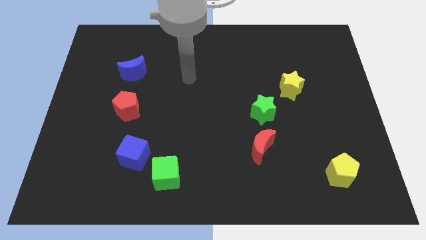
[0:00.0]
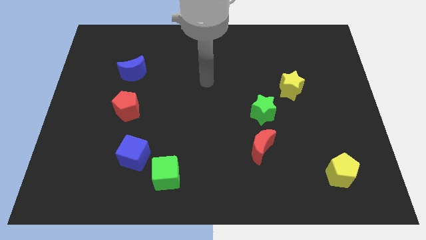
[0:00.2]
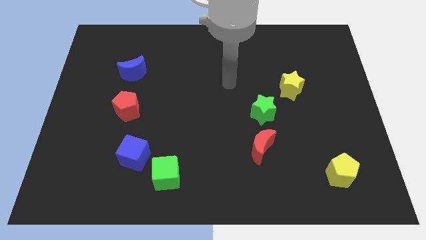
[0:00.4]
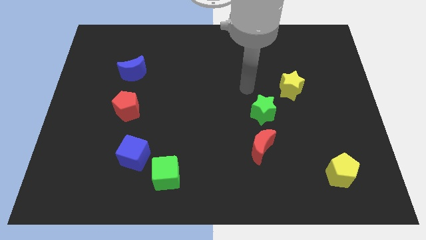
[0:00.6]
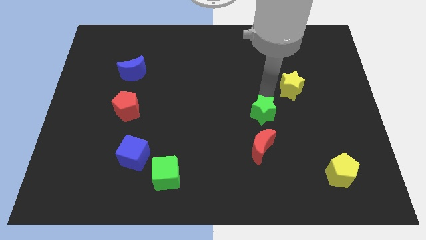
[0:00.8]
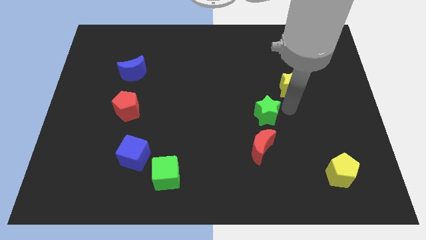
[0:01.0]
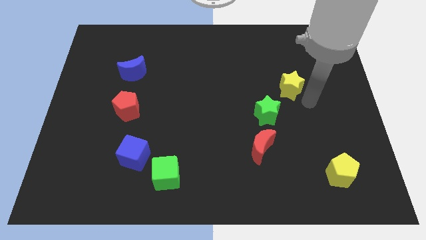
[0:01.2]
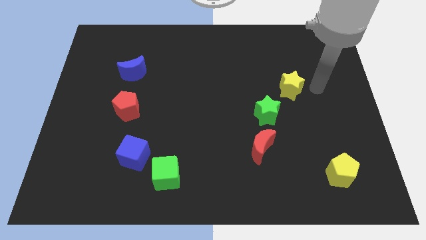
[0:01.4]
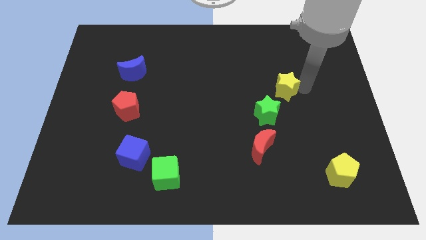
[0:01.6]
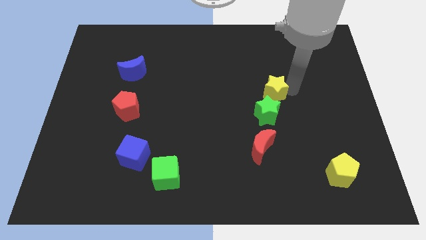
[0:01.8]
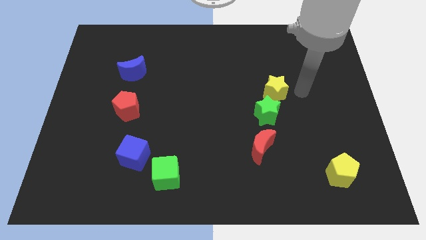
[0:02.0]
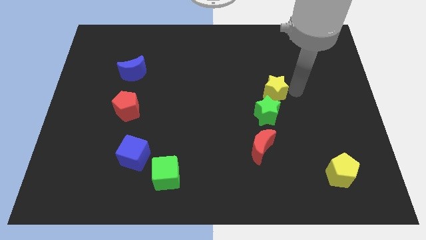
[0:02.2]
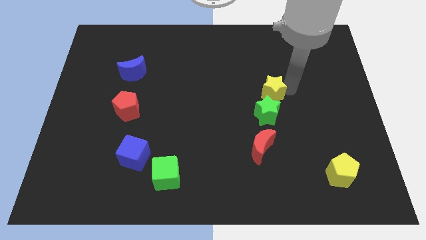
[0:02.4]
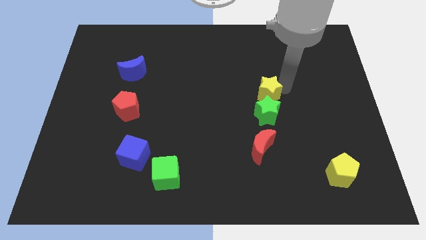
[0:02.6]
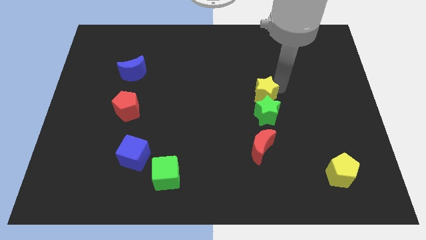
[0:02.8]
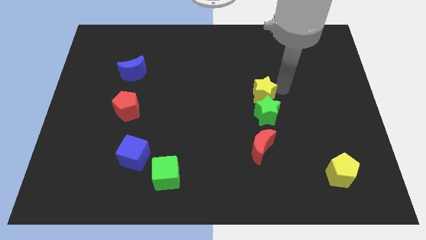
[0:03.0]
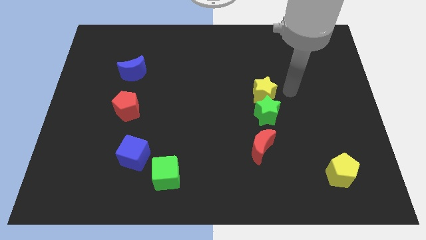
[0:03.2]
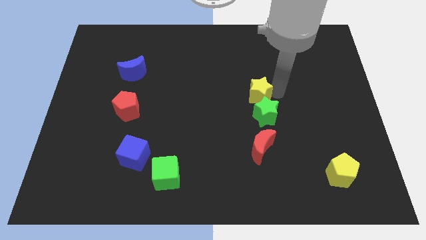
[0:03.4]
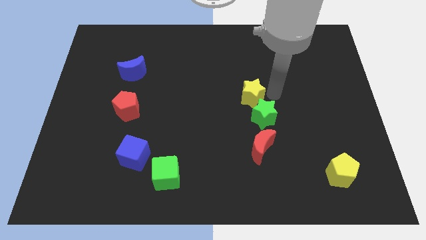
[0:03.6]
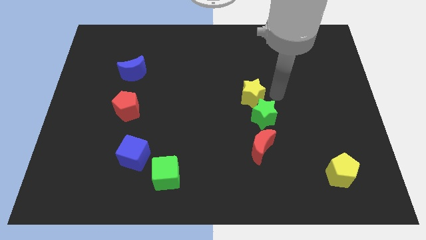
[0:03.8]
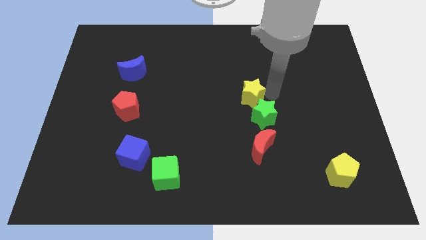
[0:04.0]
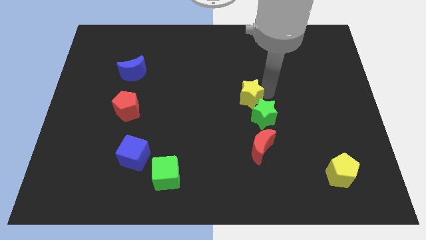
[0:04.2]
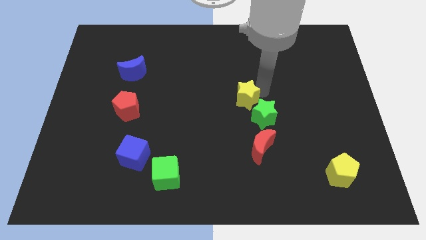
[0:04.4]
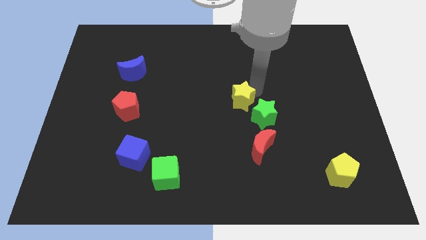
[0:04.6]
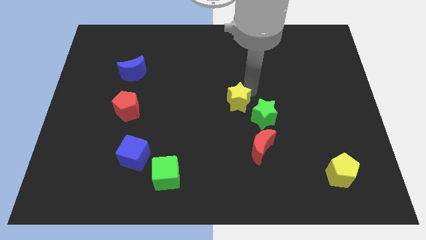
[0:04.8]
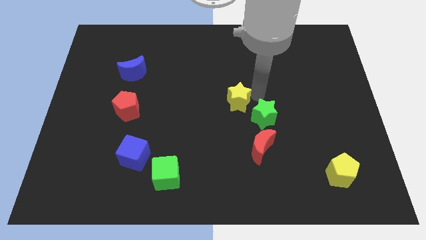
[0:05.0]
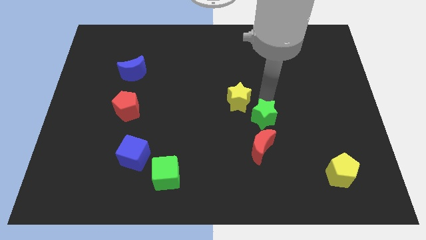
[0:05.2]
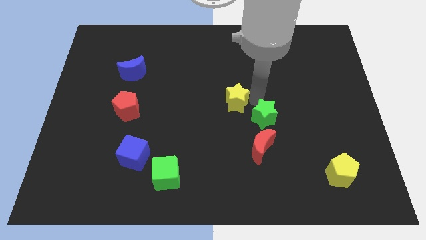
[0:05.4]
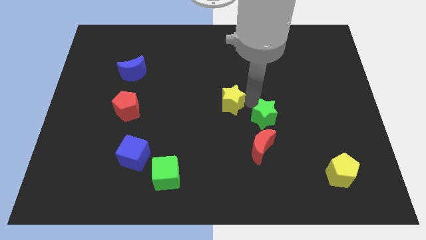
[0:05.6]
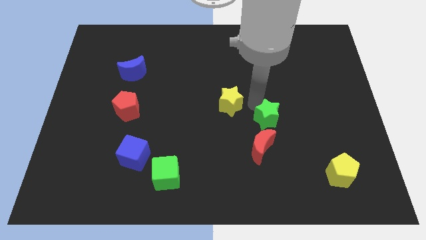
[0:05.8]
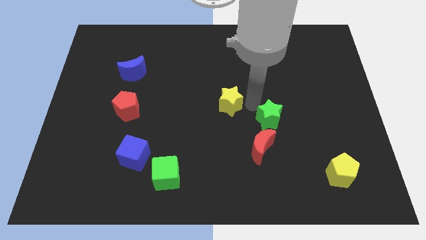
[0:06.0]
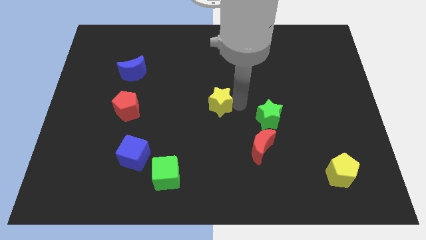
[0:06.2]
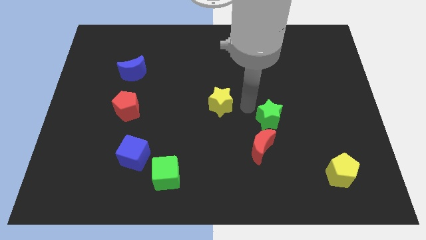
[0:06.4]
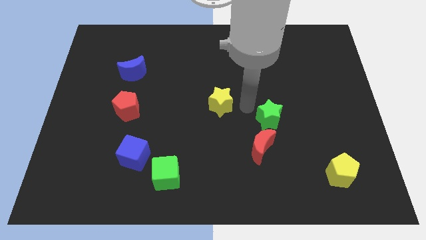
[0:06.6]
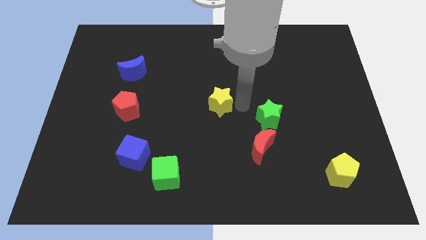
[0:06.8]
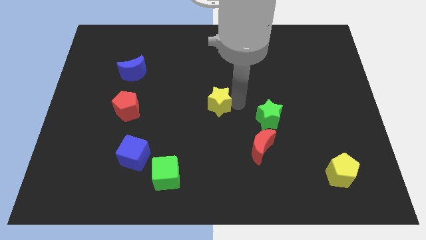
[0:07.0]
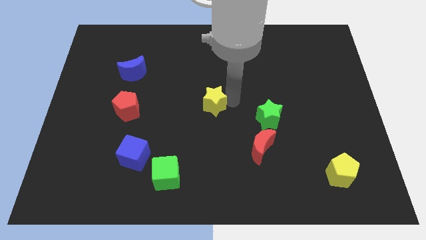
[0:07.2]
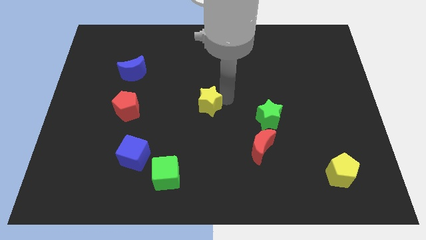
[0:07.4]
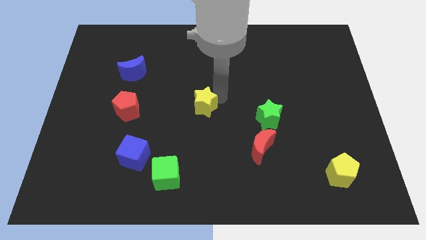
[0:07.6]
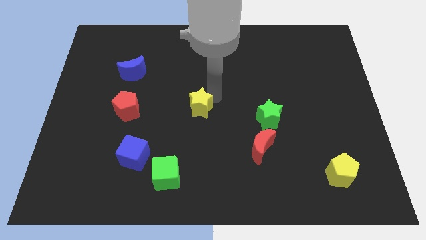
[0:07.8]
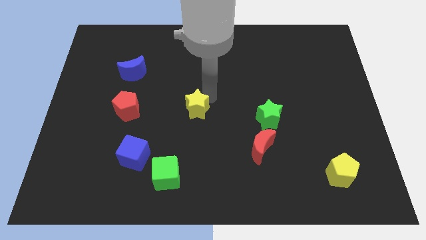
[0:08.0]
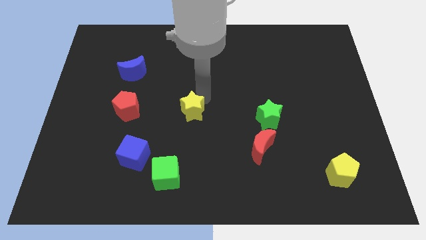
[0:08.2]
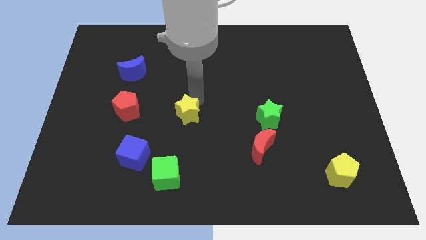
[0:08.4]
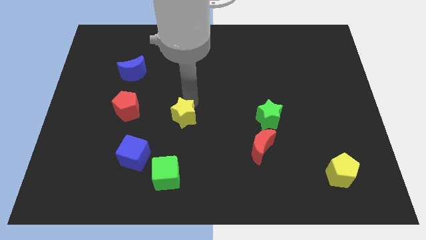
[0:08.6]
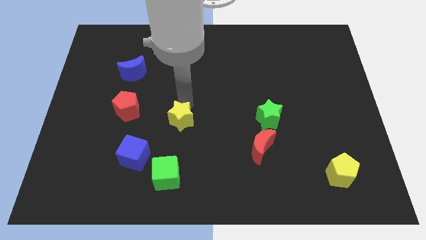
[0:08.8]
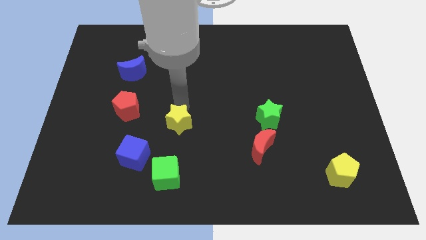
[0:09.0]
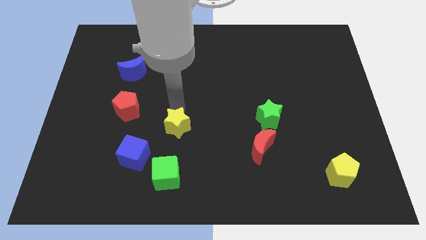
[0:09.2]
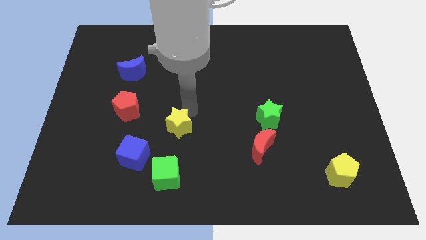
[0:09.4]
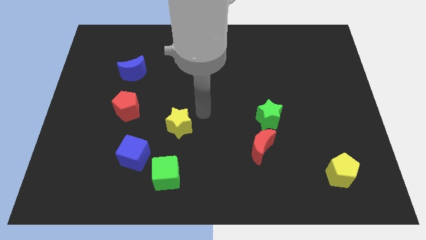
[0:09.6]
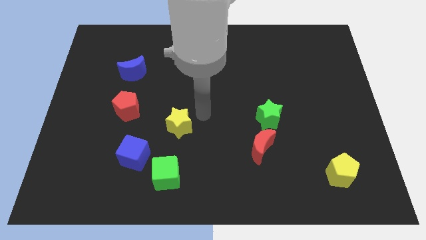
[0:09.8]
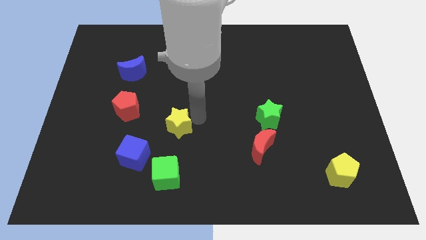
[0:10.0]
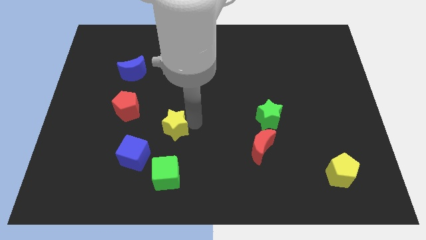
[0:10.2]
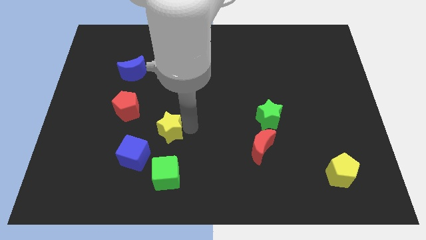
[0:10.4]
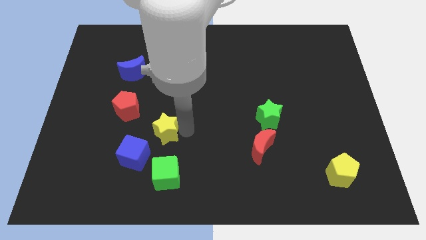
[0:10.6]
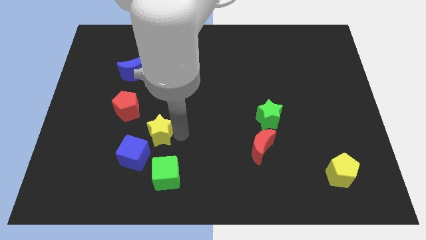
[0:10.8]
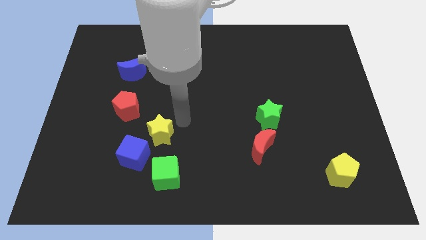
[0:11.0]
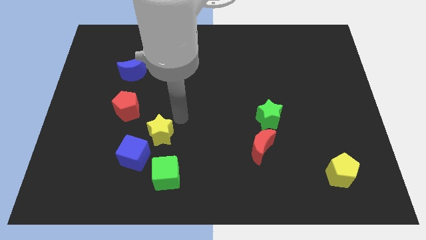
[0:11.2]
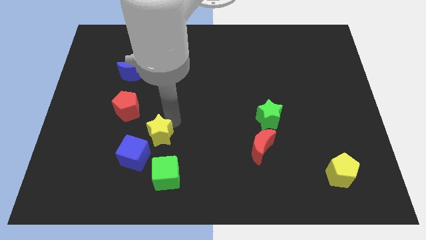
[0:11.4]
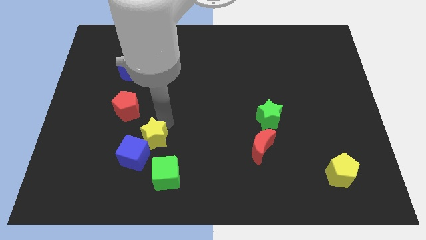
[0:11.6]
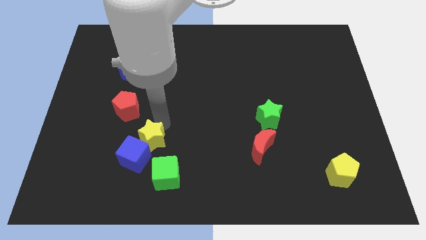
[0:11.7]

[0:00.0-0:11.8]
put the yellow star to the blue cube

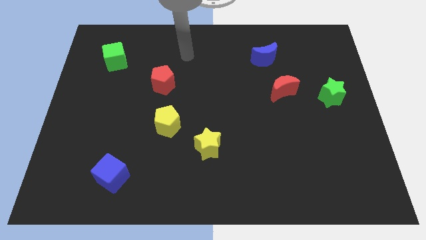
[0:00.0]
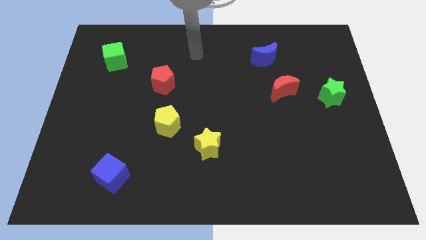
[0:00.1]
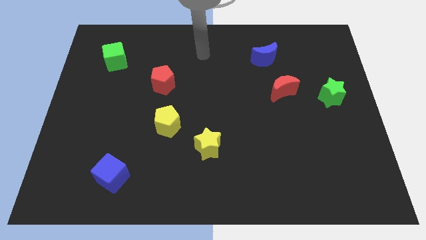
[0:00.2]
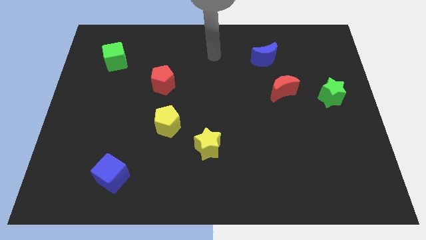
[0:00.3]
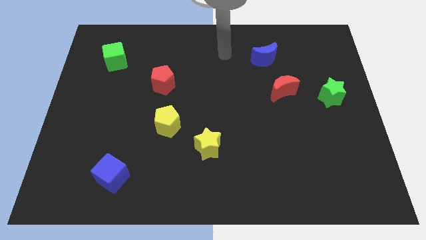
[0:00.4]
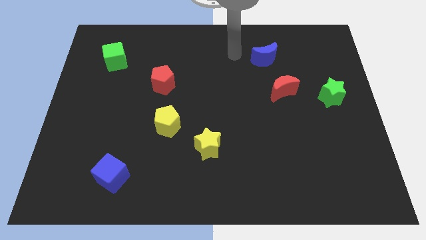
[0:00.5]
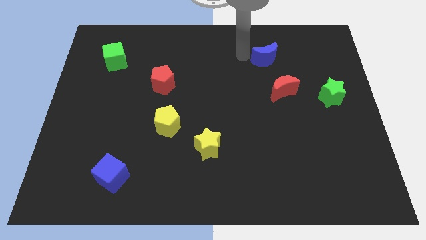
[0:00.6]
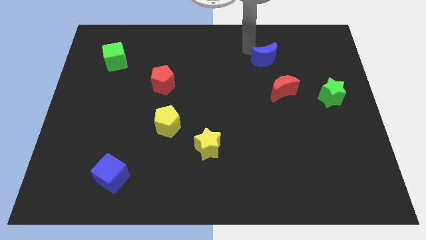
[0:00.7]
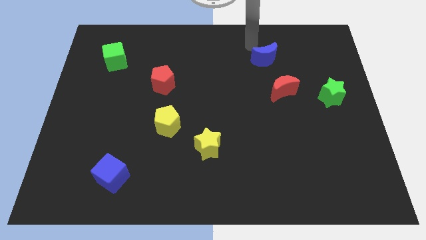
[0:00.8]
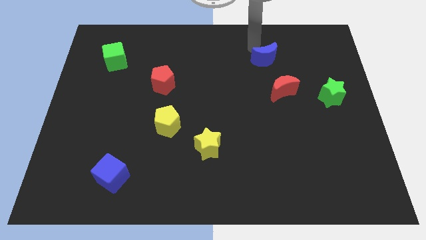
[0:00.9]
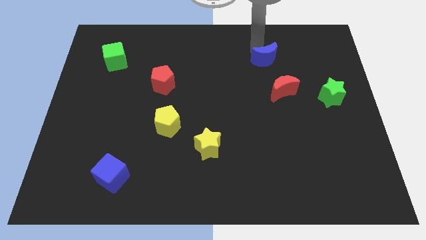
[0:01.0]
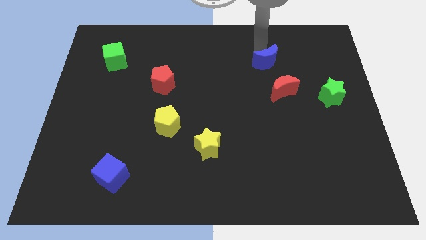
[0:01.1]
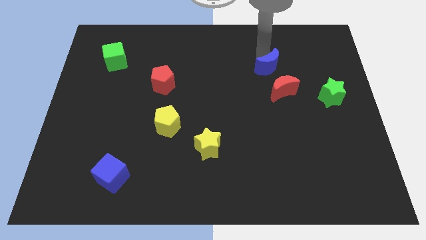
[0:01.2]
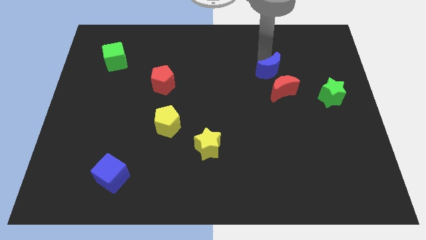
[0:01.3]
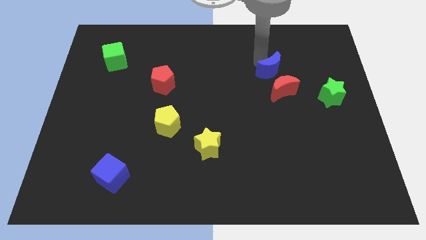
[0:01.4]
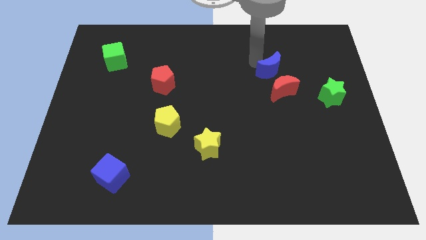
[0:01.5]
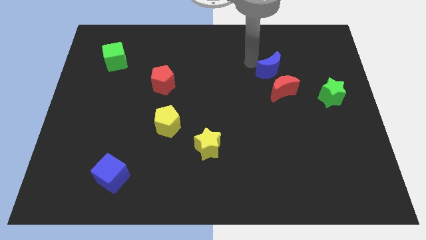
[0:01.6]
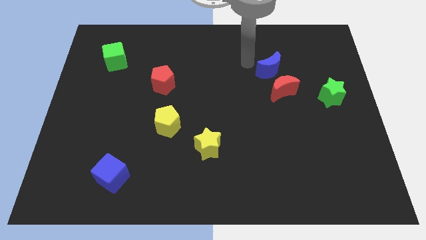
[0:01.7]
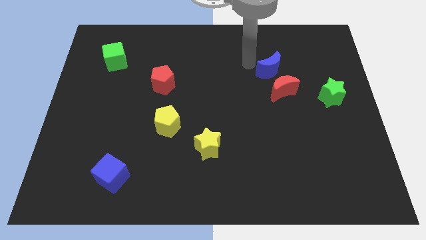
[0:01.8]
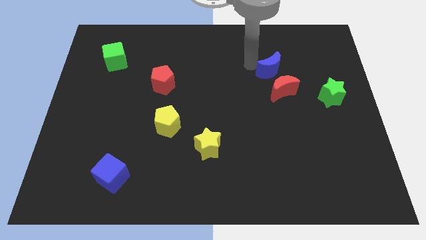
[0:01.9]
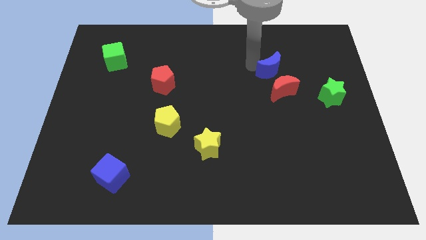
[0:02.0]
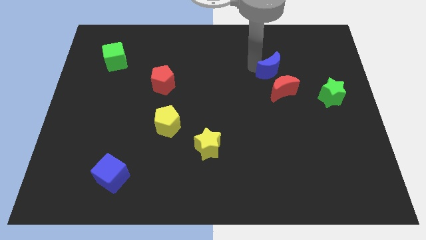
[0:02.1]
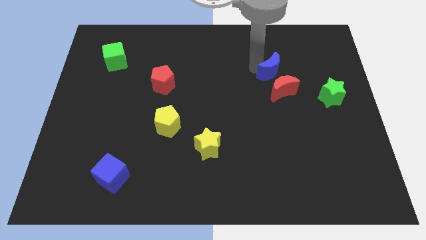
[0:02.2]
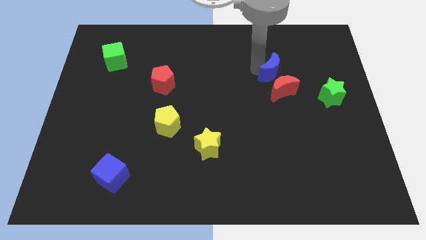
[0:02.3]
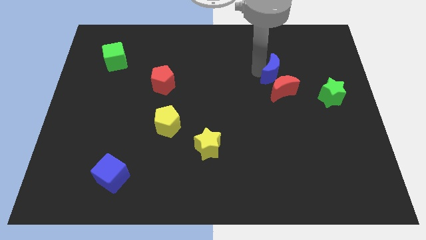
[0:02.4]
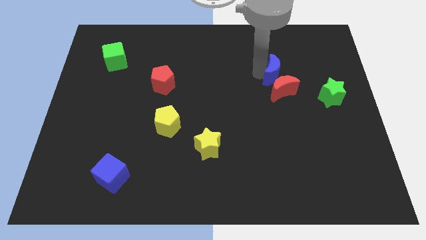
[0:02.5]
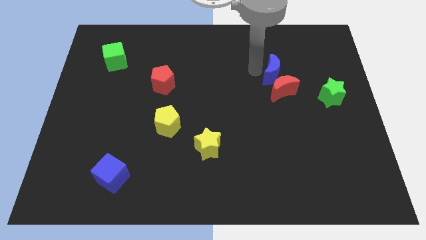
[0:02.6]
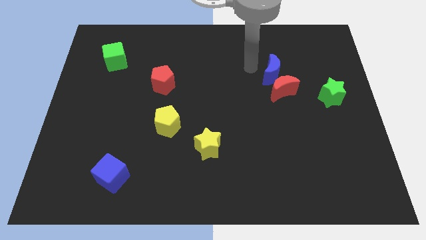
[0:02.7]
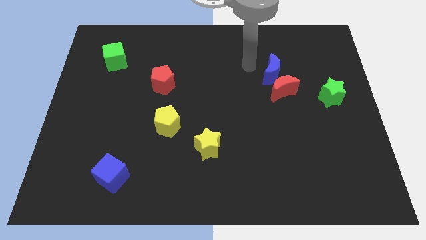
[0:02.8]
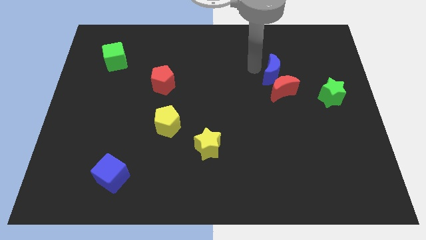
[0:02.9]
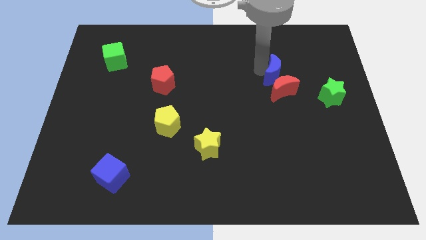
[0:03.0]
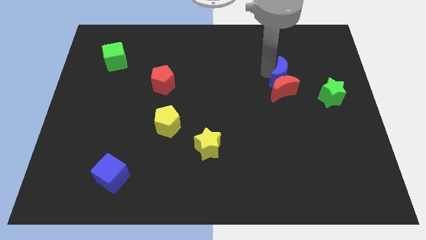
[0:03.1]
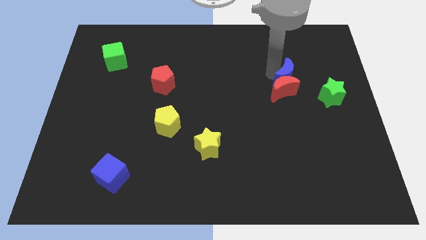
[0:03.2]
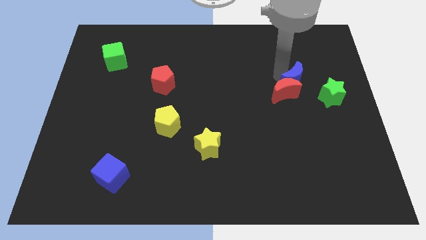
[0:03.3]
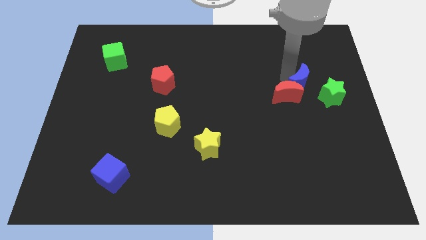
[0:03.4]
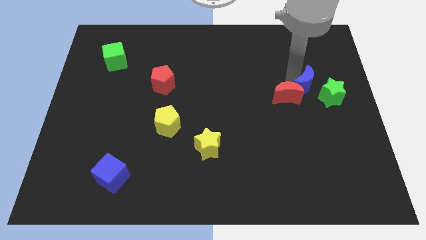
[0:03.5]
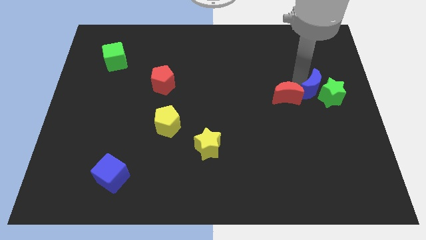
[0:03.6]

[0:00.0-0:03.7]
push the blue moon next to the green star
